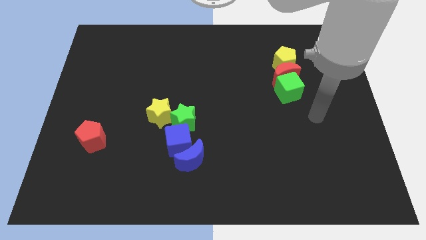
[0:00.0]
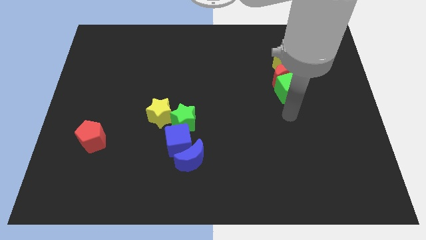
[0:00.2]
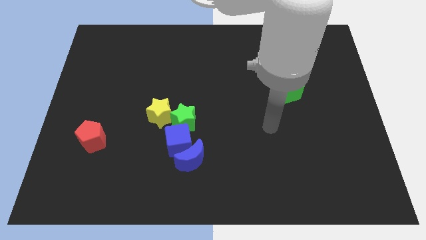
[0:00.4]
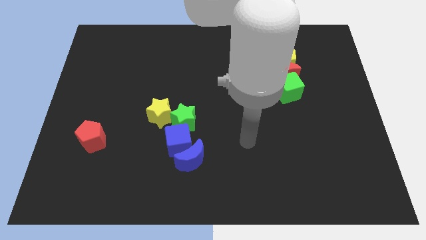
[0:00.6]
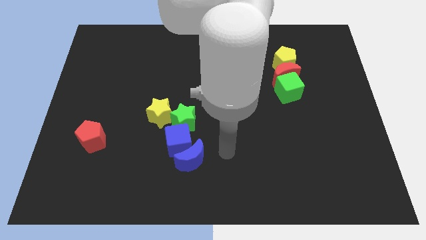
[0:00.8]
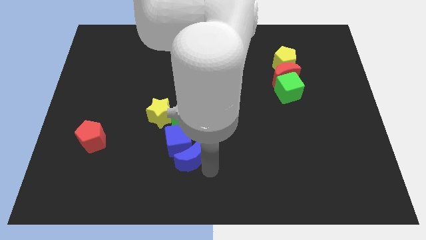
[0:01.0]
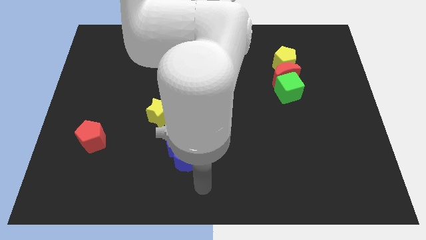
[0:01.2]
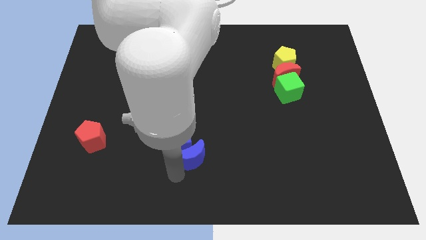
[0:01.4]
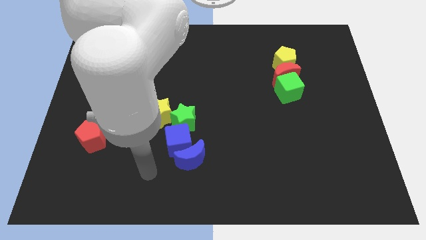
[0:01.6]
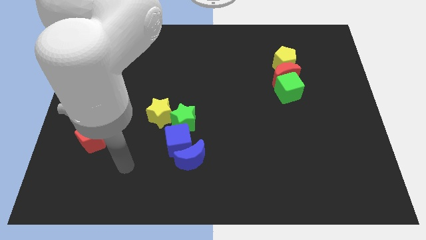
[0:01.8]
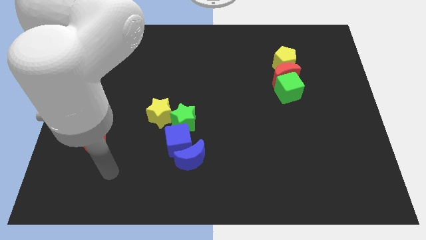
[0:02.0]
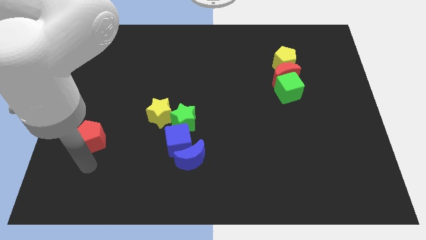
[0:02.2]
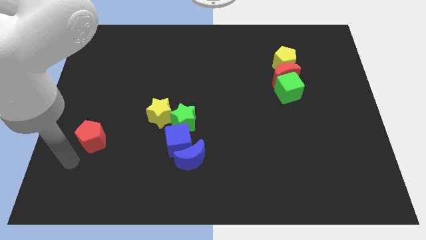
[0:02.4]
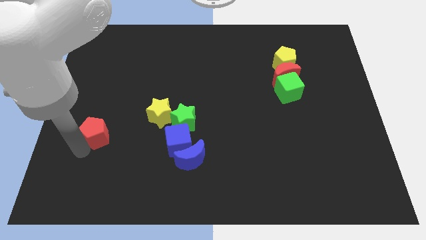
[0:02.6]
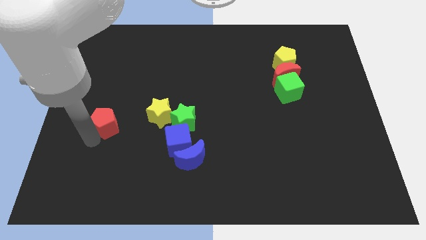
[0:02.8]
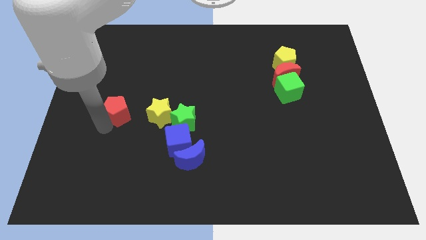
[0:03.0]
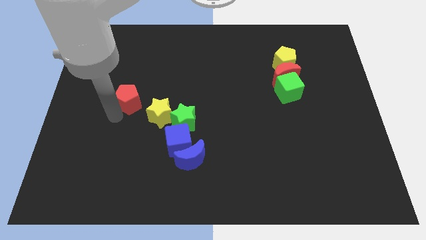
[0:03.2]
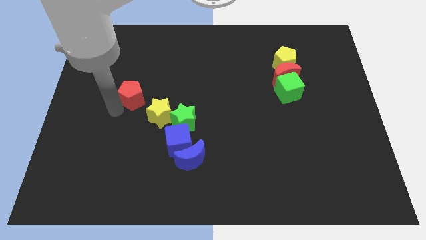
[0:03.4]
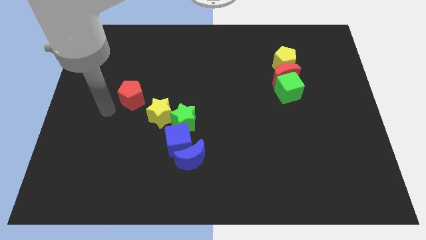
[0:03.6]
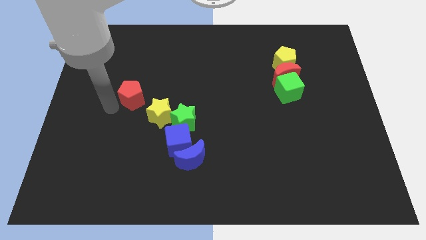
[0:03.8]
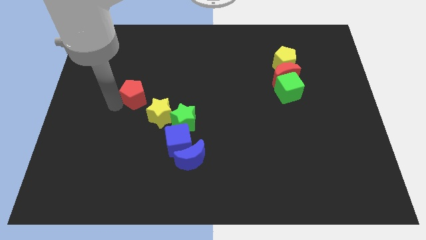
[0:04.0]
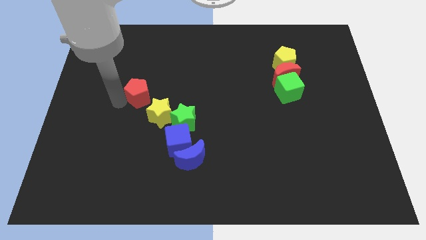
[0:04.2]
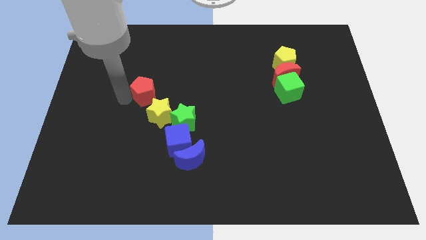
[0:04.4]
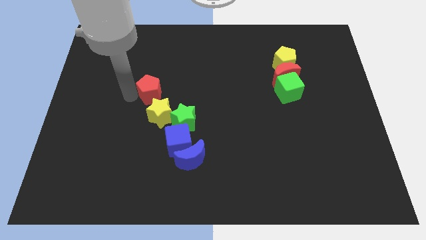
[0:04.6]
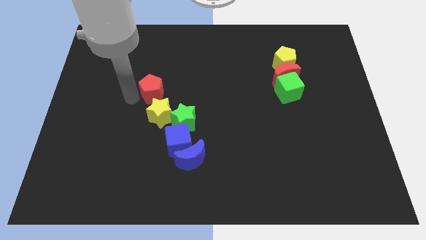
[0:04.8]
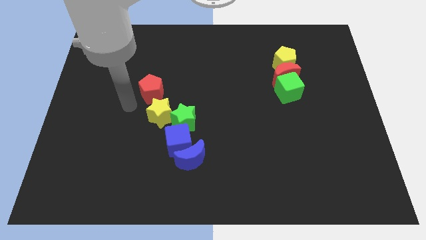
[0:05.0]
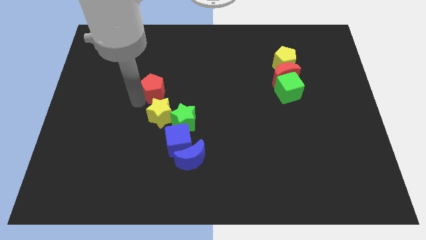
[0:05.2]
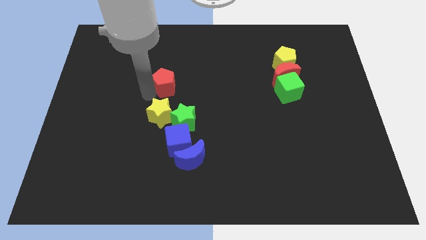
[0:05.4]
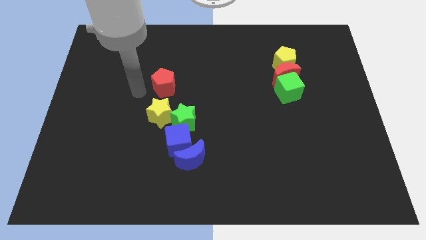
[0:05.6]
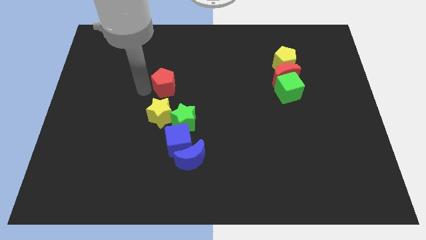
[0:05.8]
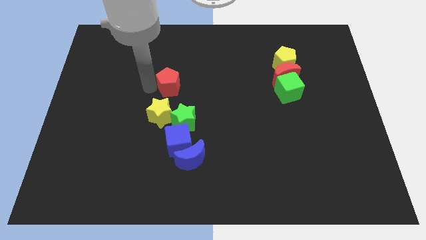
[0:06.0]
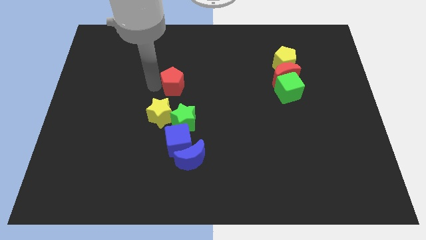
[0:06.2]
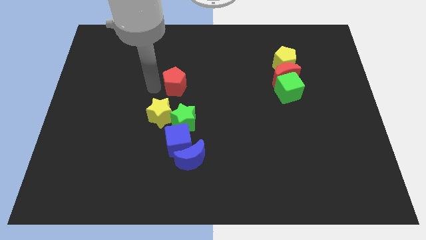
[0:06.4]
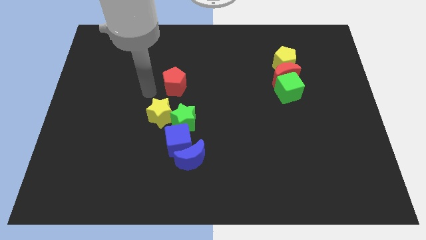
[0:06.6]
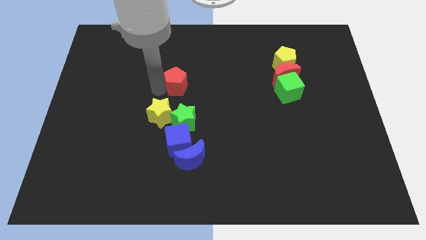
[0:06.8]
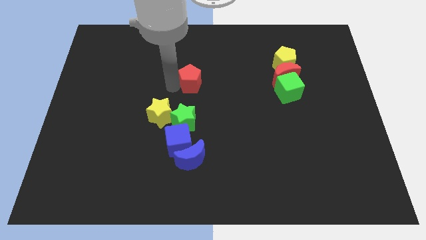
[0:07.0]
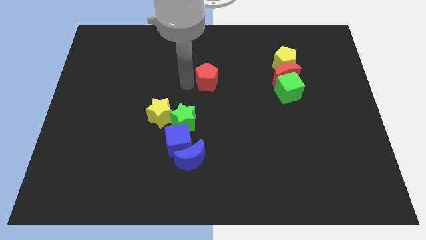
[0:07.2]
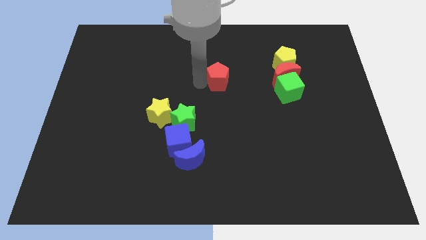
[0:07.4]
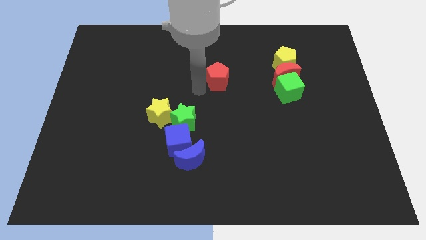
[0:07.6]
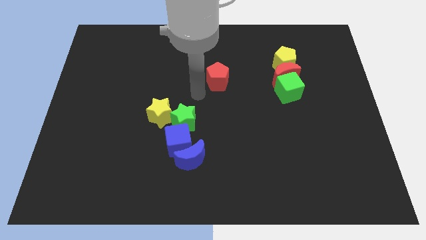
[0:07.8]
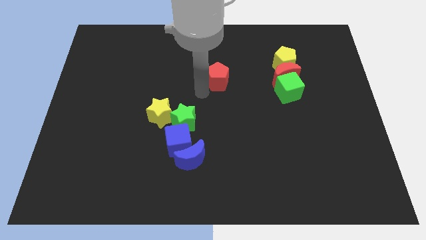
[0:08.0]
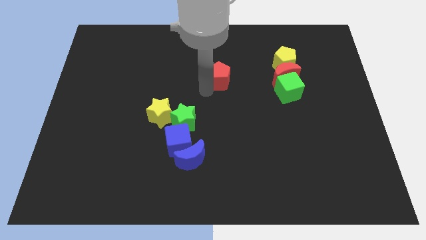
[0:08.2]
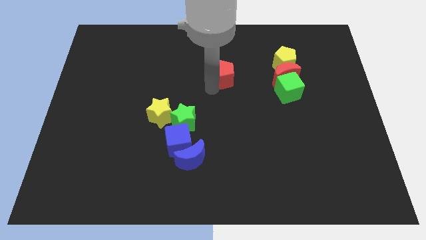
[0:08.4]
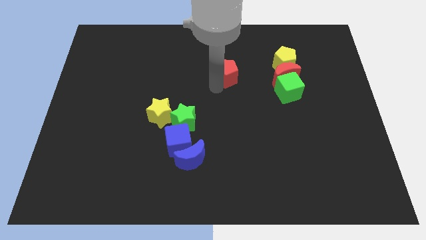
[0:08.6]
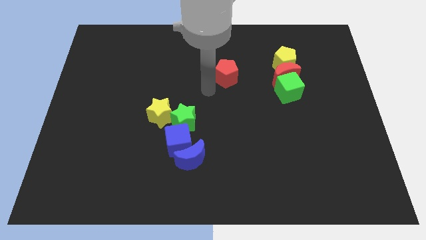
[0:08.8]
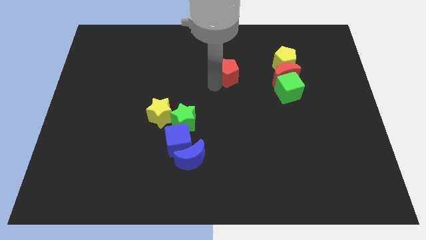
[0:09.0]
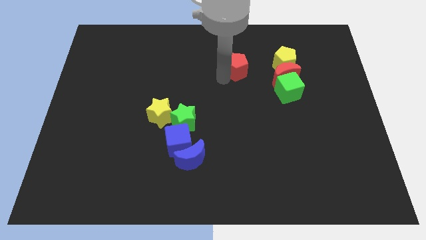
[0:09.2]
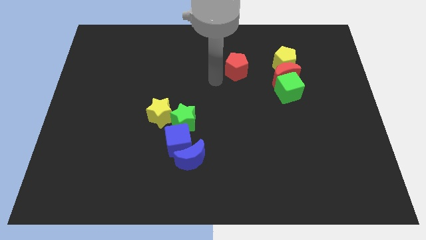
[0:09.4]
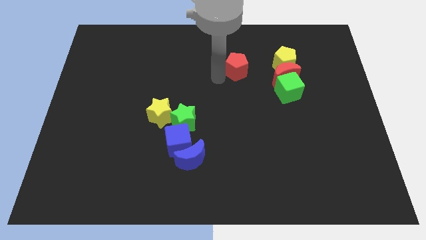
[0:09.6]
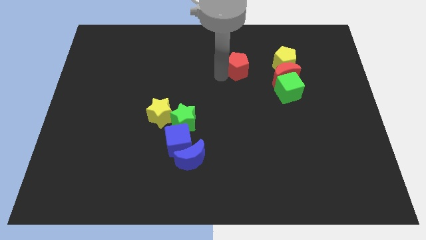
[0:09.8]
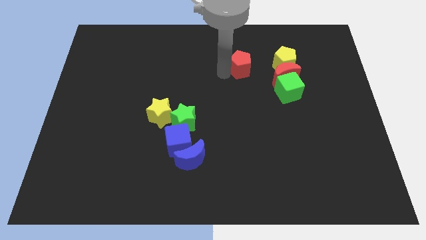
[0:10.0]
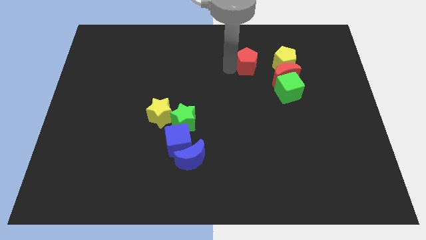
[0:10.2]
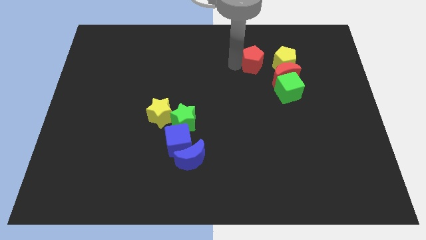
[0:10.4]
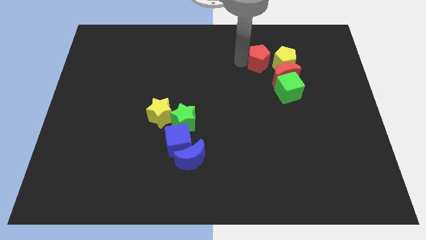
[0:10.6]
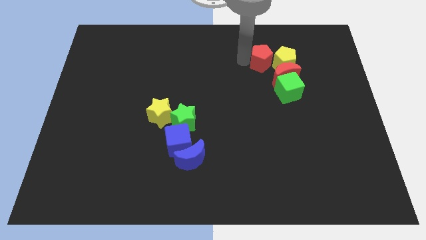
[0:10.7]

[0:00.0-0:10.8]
put the red pentagon close to the yellow pentagon

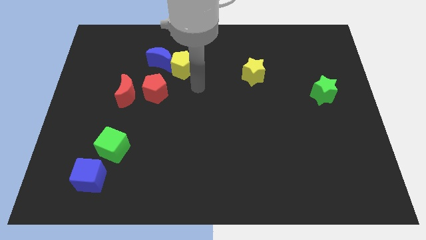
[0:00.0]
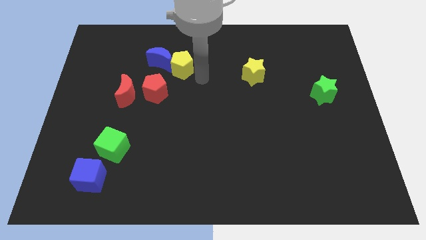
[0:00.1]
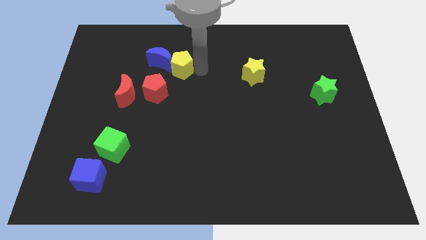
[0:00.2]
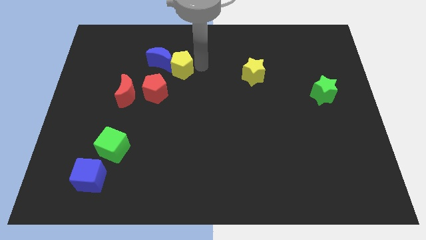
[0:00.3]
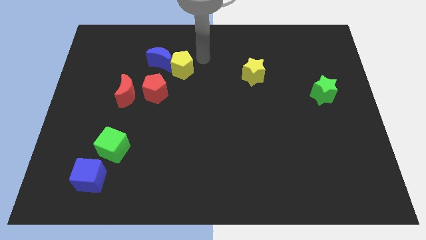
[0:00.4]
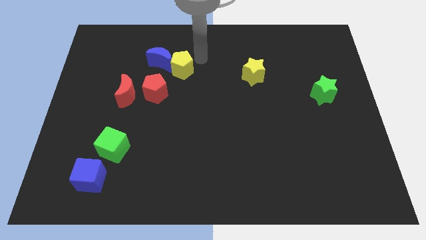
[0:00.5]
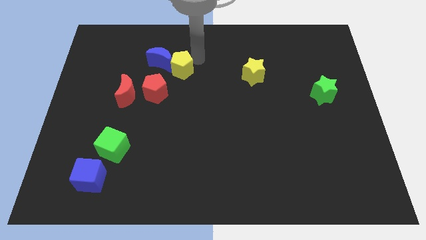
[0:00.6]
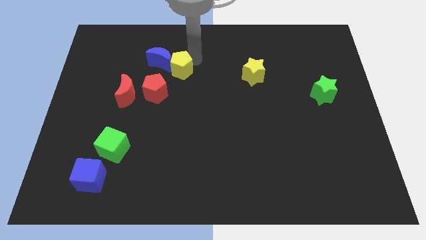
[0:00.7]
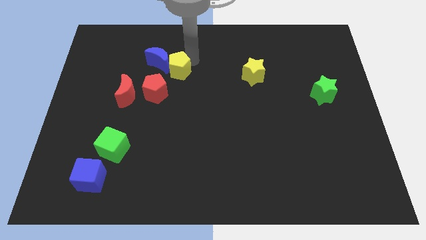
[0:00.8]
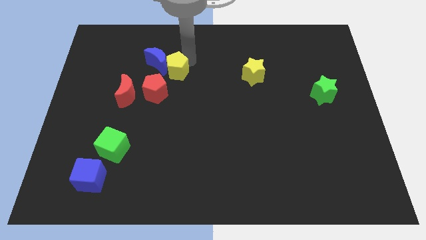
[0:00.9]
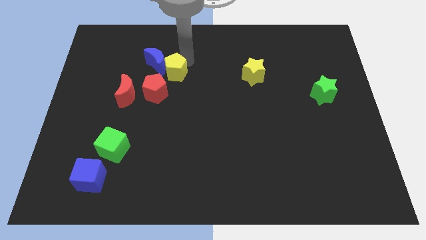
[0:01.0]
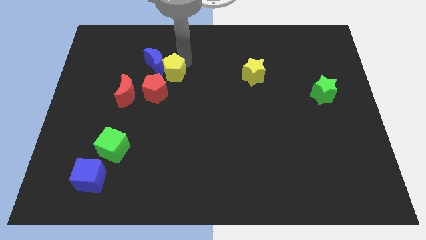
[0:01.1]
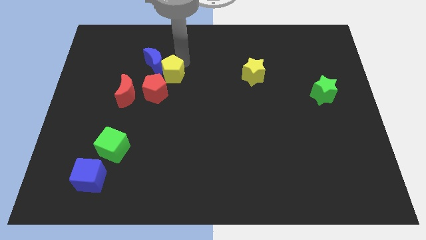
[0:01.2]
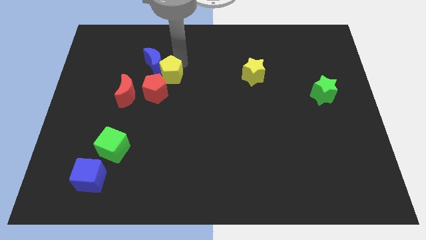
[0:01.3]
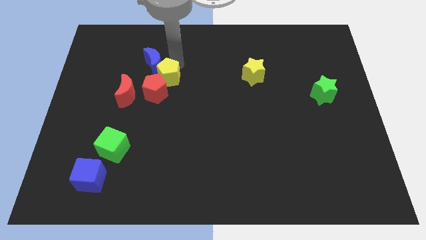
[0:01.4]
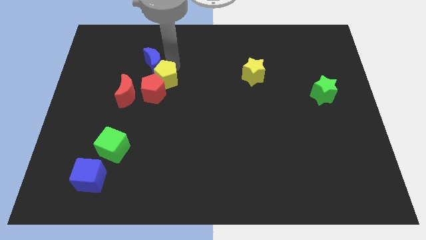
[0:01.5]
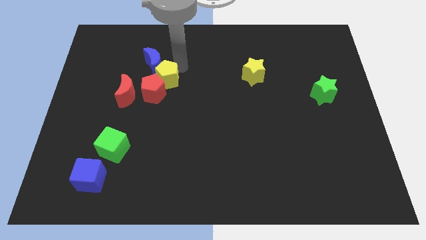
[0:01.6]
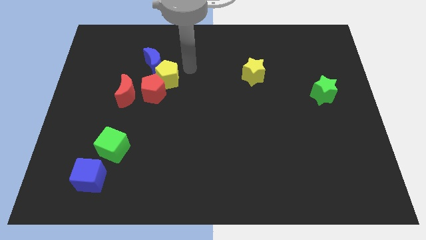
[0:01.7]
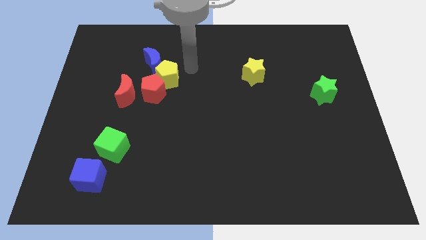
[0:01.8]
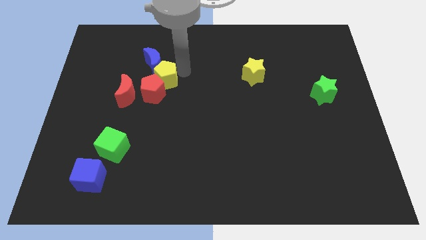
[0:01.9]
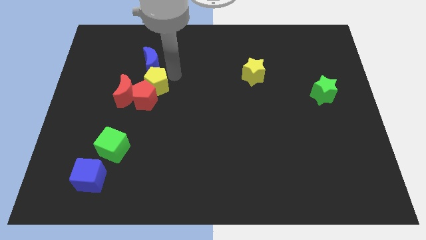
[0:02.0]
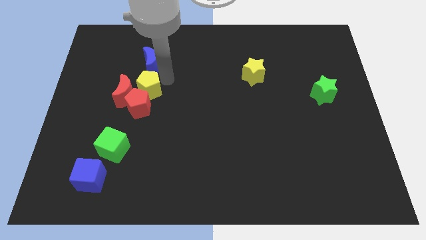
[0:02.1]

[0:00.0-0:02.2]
put the yellow pentagon close to the red moon
